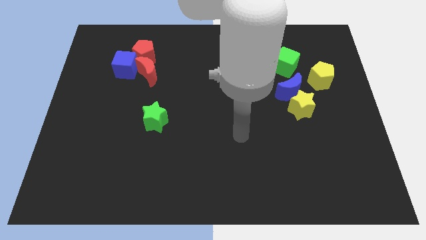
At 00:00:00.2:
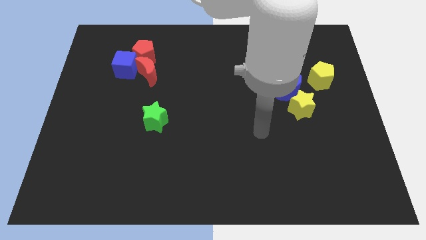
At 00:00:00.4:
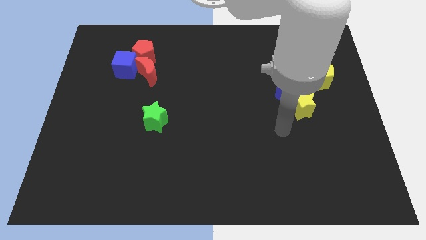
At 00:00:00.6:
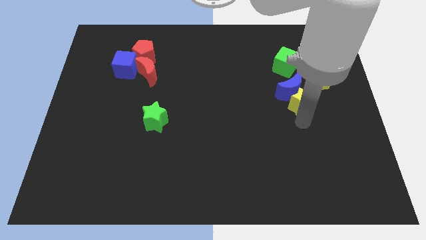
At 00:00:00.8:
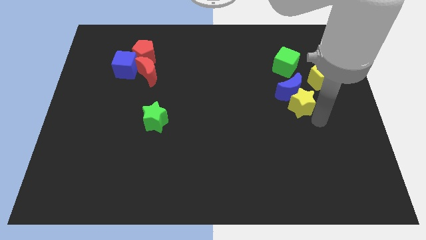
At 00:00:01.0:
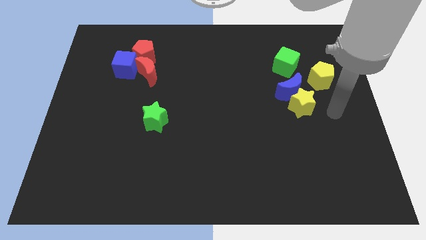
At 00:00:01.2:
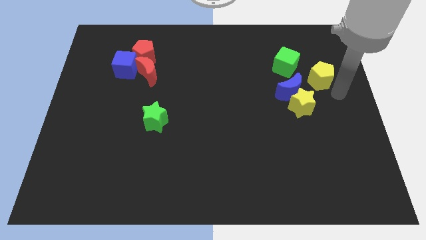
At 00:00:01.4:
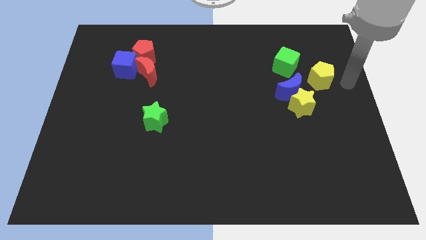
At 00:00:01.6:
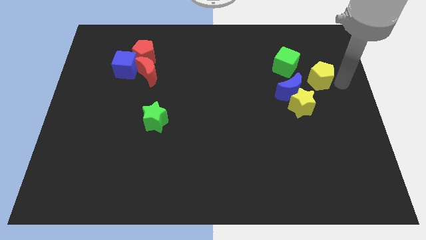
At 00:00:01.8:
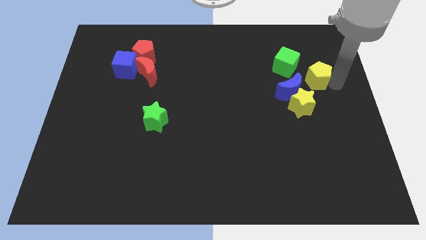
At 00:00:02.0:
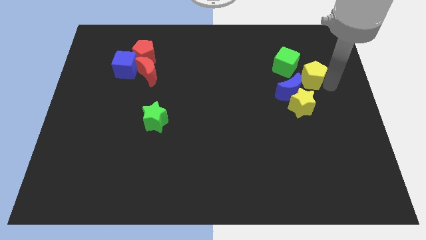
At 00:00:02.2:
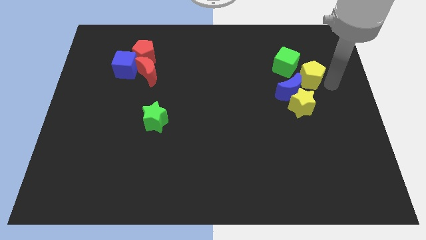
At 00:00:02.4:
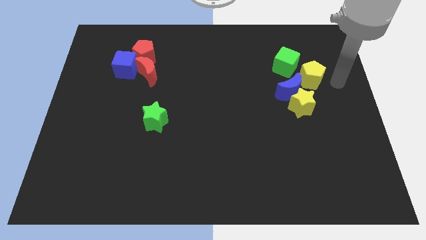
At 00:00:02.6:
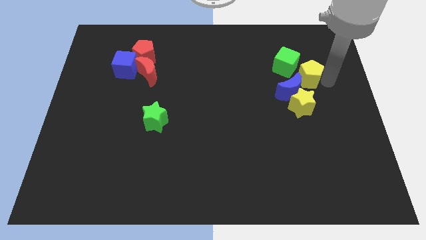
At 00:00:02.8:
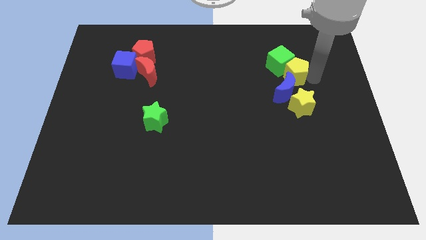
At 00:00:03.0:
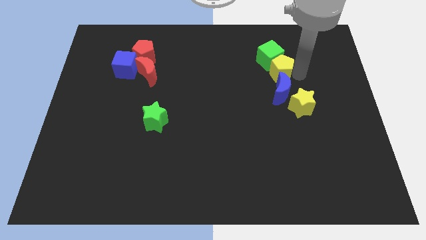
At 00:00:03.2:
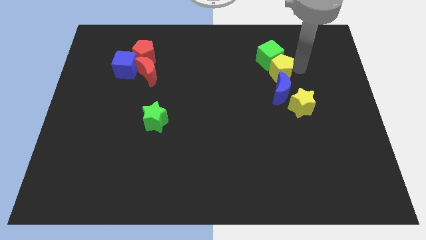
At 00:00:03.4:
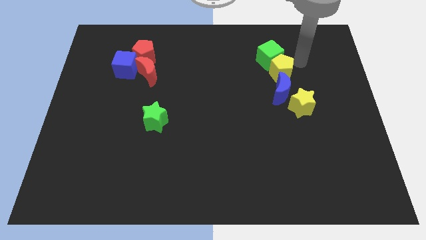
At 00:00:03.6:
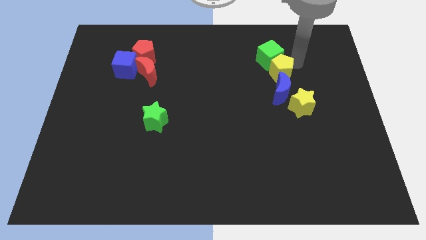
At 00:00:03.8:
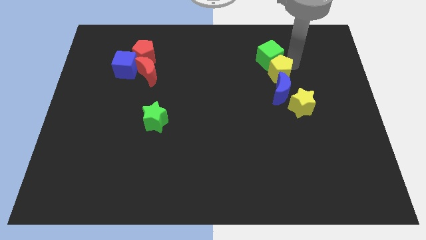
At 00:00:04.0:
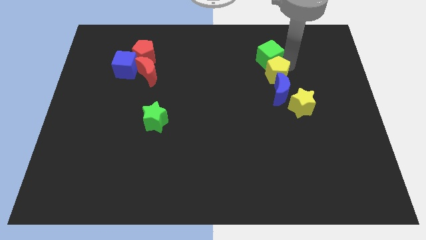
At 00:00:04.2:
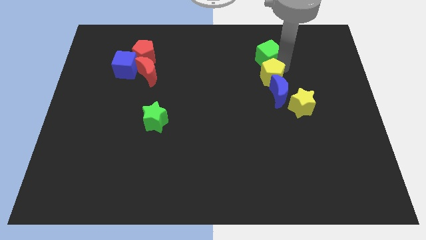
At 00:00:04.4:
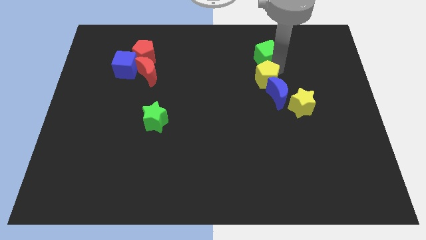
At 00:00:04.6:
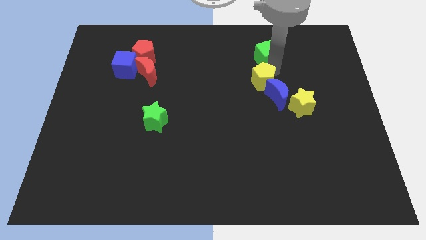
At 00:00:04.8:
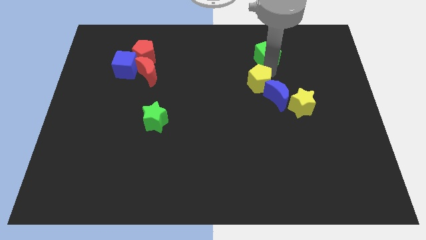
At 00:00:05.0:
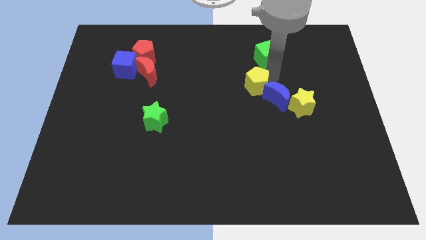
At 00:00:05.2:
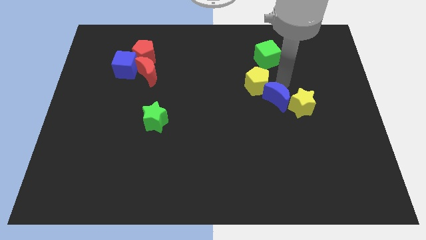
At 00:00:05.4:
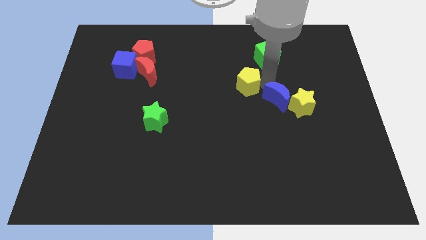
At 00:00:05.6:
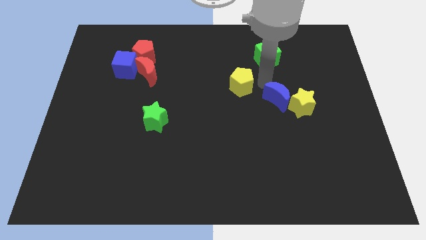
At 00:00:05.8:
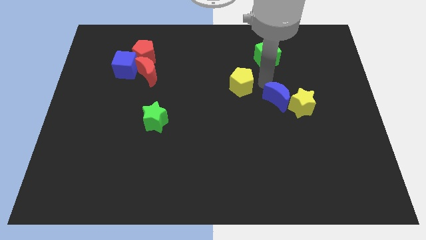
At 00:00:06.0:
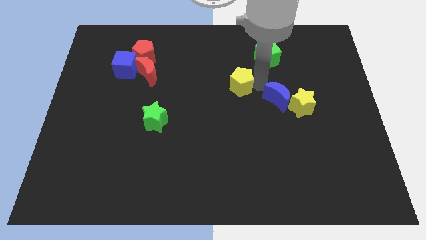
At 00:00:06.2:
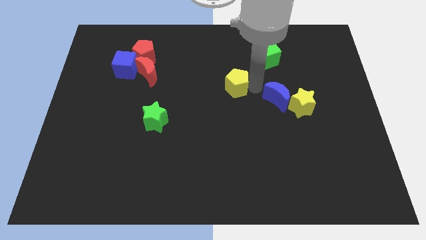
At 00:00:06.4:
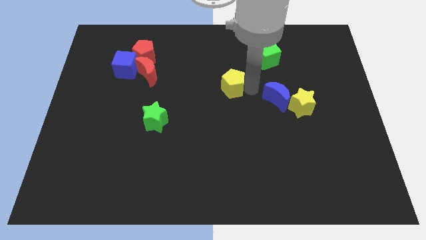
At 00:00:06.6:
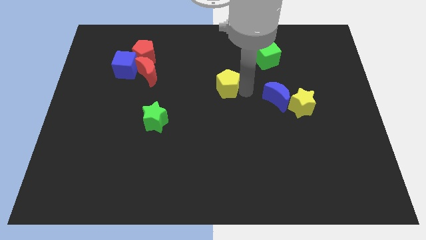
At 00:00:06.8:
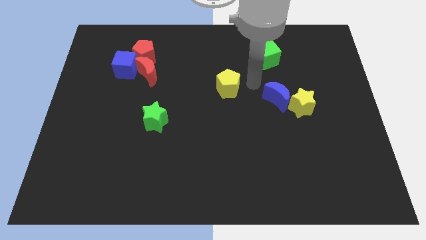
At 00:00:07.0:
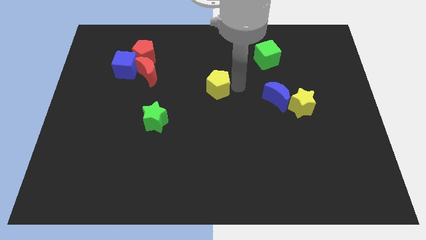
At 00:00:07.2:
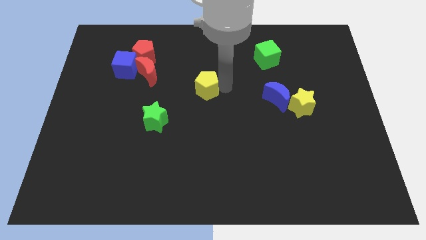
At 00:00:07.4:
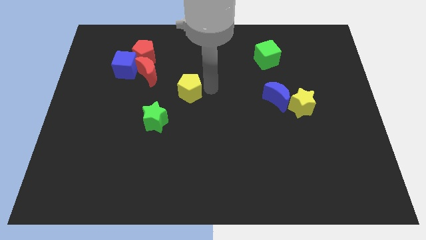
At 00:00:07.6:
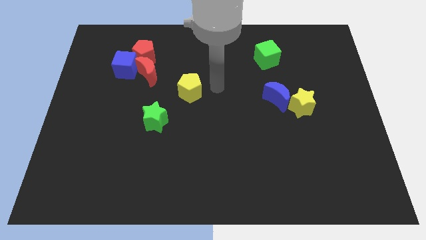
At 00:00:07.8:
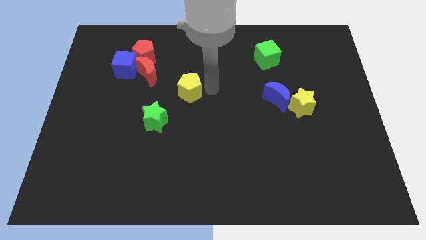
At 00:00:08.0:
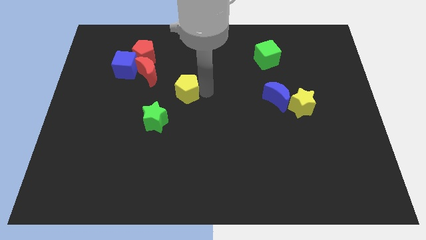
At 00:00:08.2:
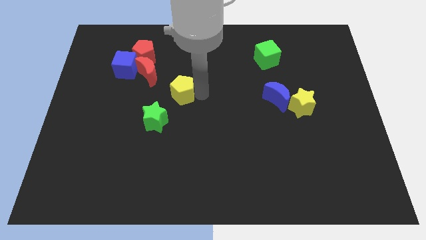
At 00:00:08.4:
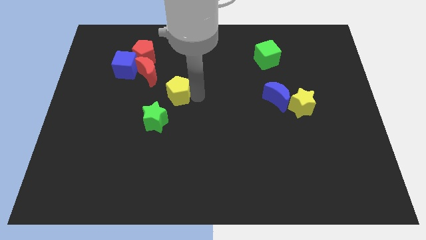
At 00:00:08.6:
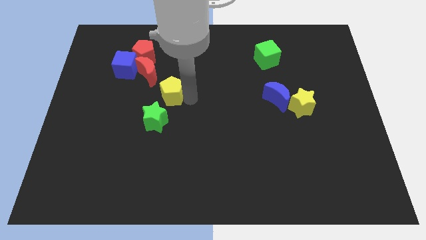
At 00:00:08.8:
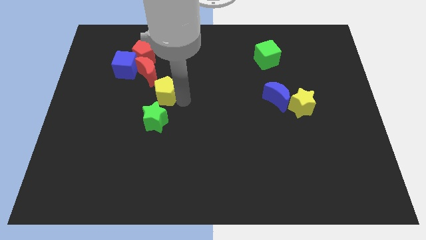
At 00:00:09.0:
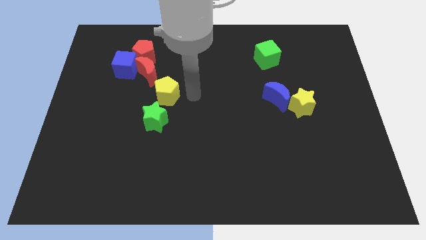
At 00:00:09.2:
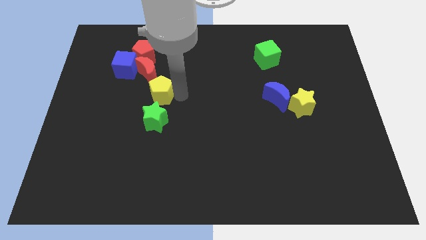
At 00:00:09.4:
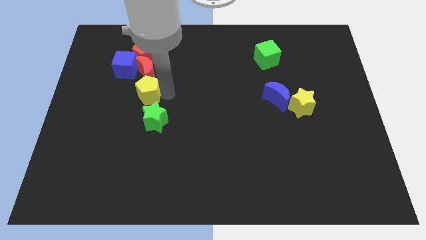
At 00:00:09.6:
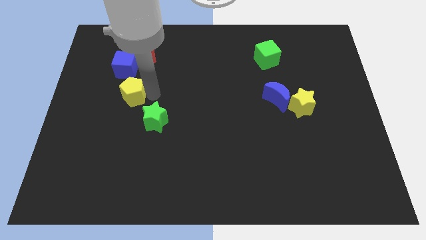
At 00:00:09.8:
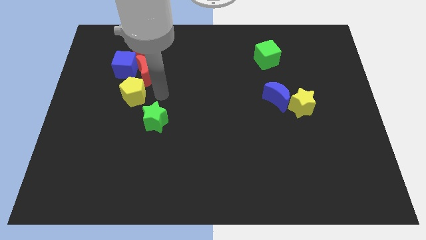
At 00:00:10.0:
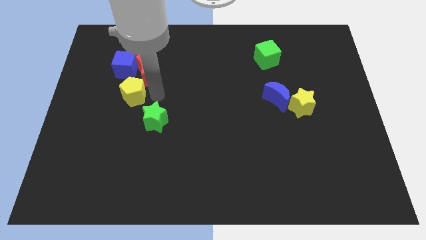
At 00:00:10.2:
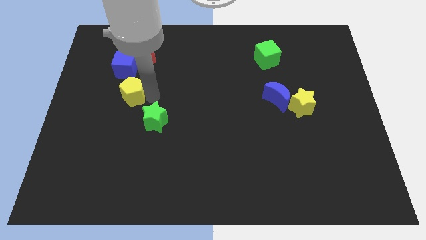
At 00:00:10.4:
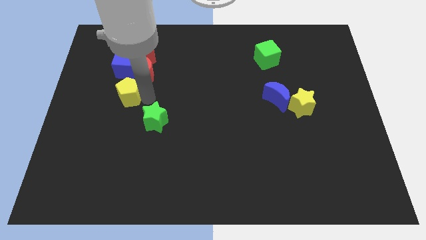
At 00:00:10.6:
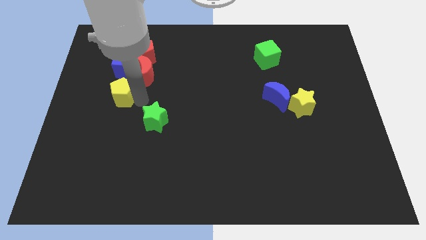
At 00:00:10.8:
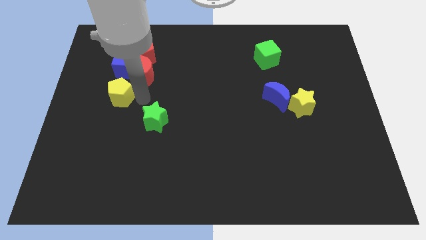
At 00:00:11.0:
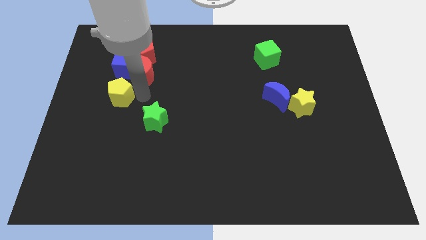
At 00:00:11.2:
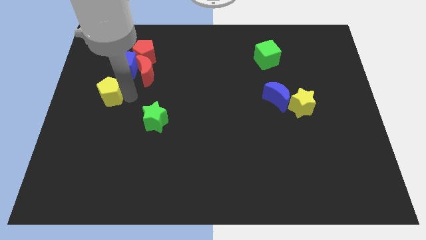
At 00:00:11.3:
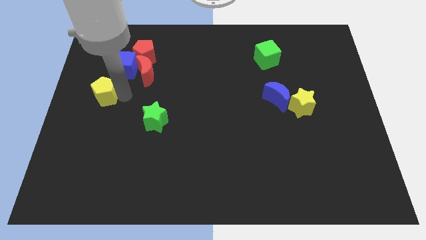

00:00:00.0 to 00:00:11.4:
push the yellow pentagon to the left side of the board

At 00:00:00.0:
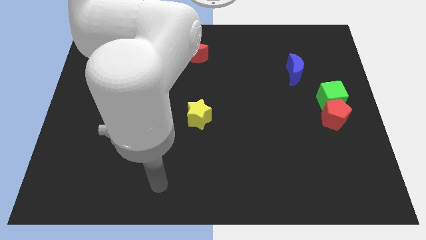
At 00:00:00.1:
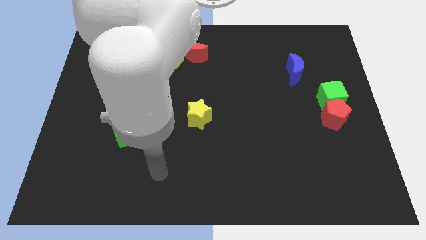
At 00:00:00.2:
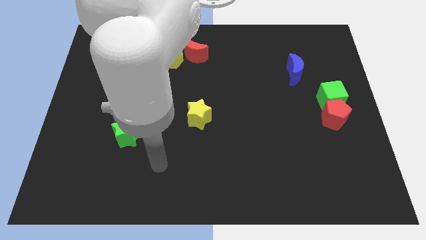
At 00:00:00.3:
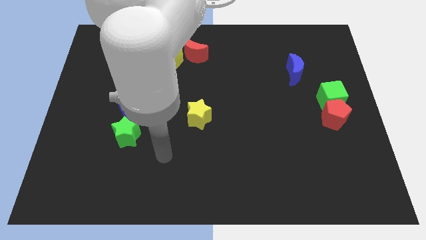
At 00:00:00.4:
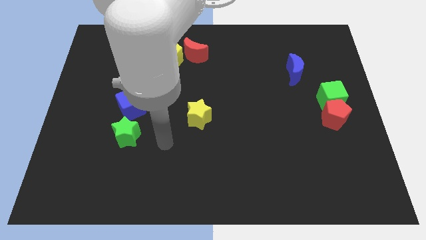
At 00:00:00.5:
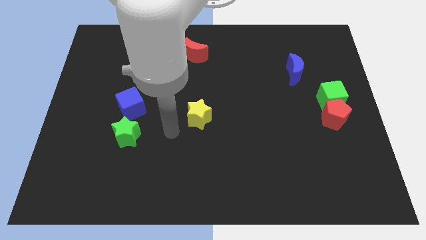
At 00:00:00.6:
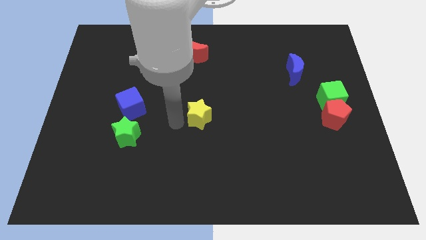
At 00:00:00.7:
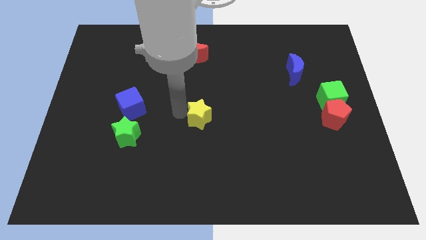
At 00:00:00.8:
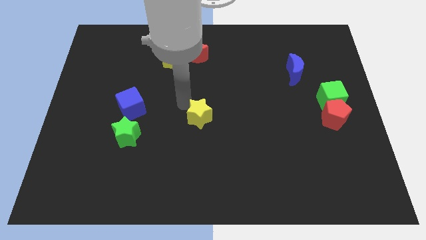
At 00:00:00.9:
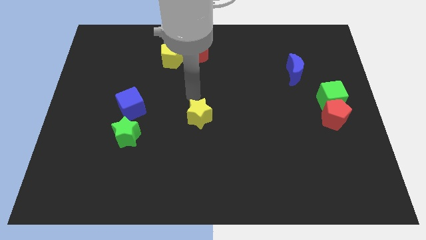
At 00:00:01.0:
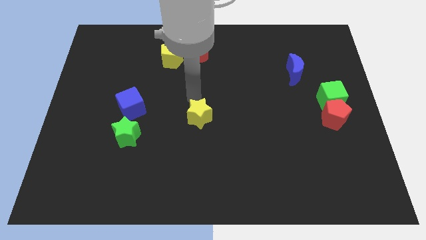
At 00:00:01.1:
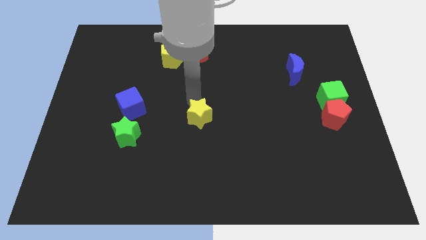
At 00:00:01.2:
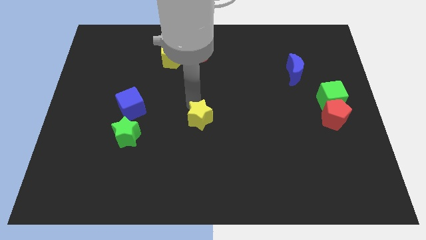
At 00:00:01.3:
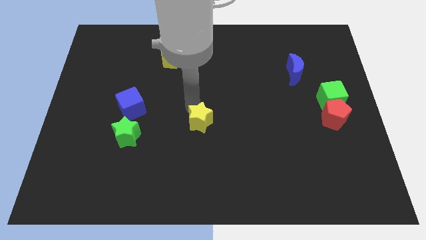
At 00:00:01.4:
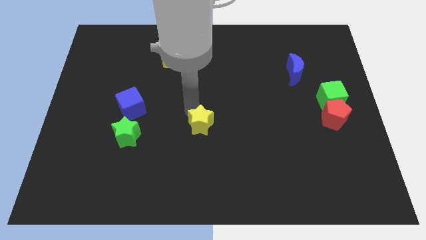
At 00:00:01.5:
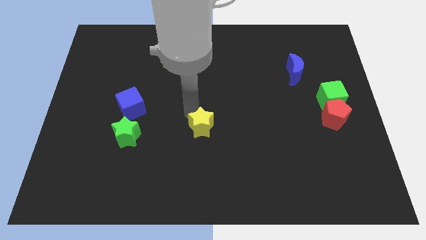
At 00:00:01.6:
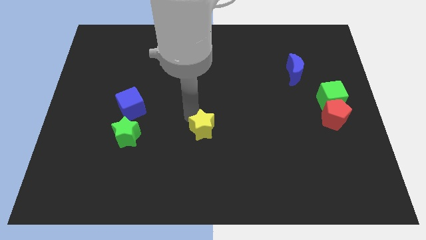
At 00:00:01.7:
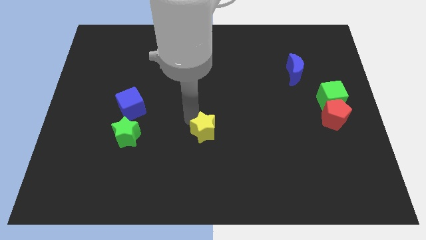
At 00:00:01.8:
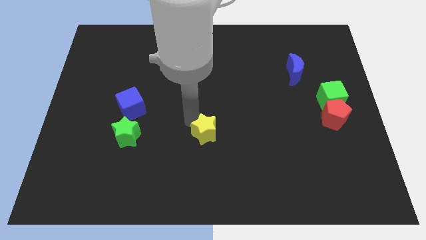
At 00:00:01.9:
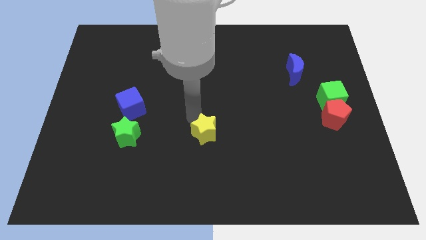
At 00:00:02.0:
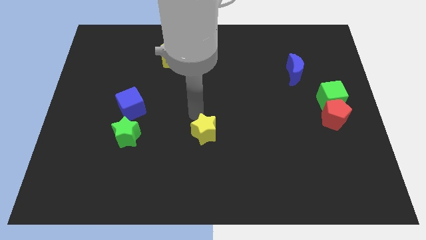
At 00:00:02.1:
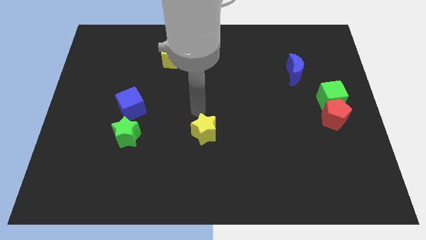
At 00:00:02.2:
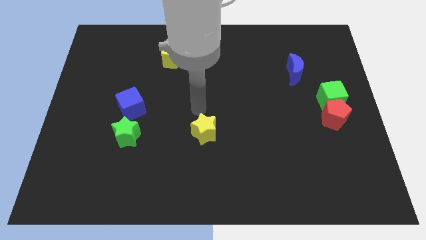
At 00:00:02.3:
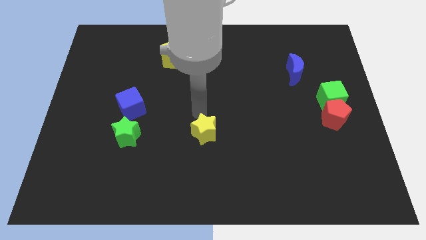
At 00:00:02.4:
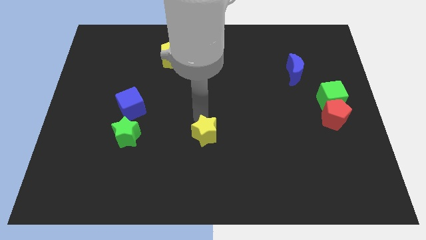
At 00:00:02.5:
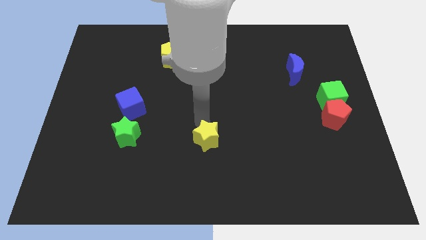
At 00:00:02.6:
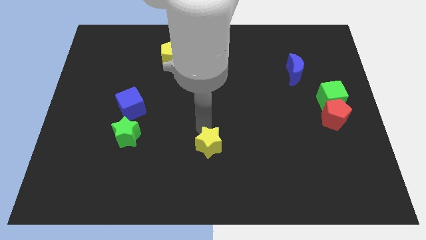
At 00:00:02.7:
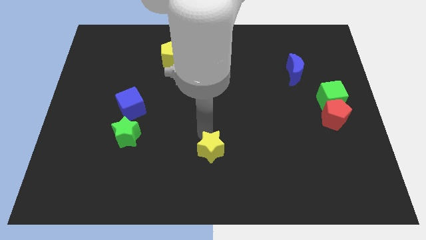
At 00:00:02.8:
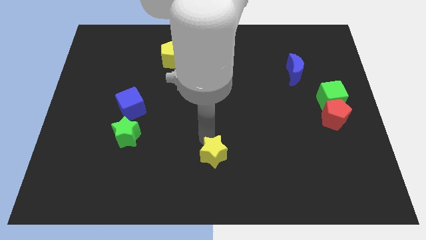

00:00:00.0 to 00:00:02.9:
put the yellow star to the bottom
